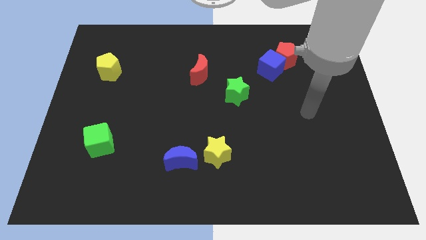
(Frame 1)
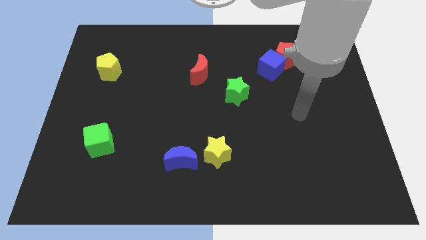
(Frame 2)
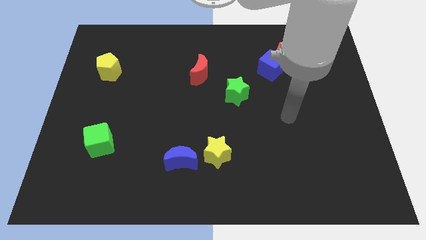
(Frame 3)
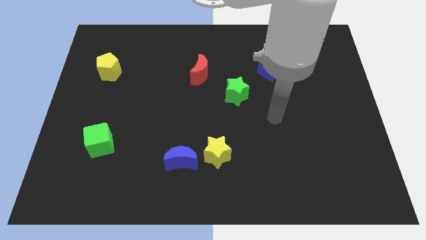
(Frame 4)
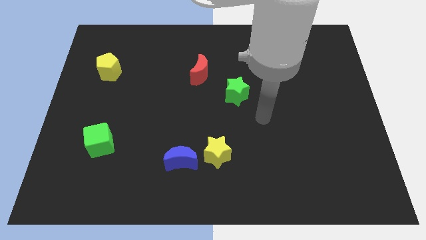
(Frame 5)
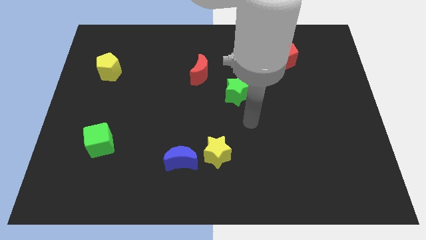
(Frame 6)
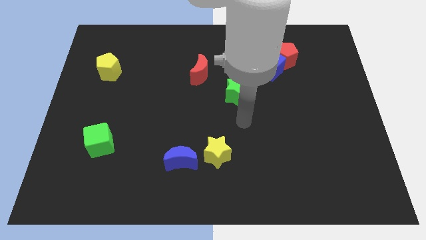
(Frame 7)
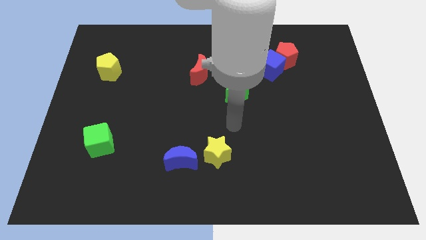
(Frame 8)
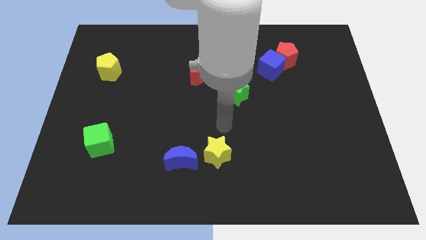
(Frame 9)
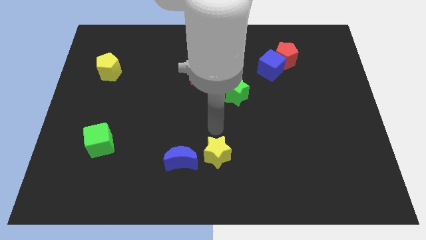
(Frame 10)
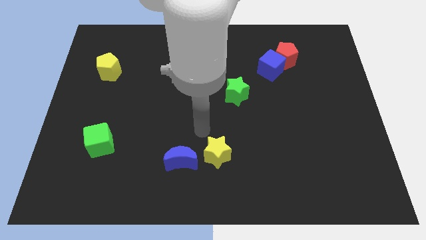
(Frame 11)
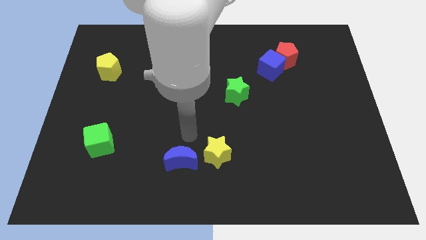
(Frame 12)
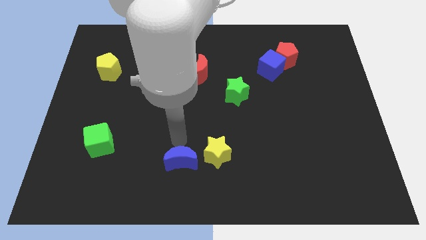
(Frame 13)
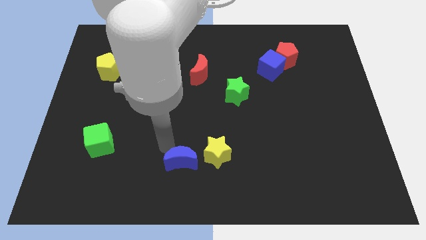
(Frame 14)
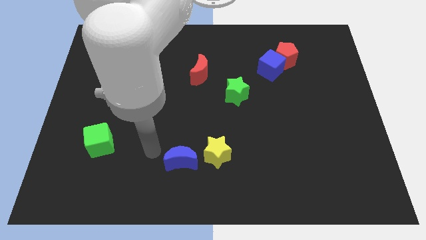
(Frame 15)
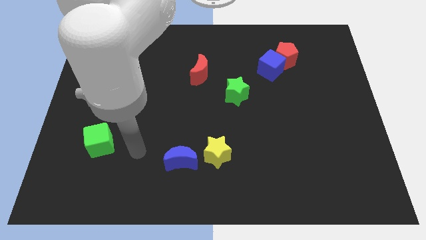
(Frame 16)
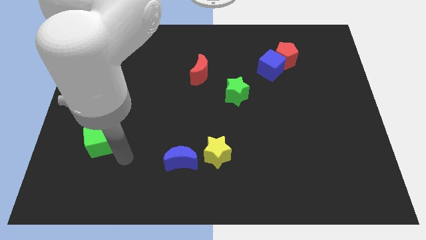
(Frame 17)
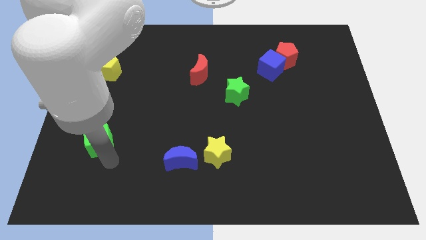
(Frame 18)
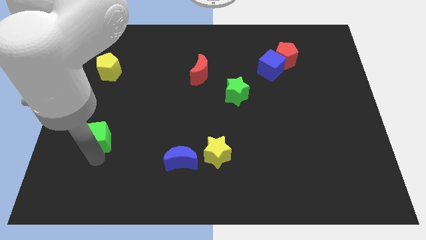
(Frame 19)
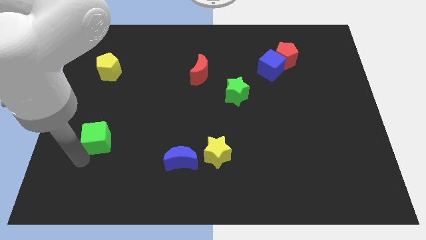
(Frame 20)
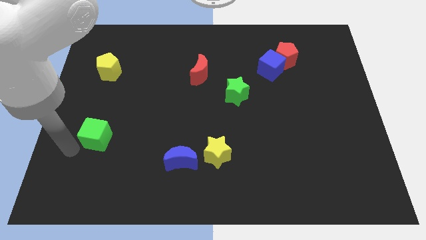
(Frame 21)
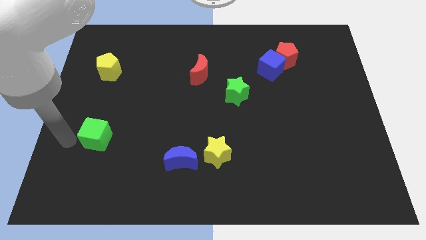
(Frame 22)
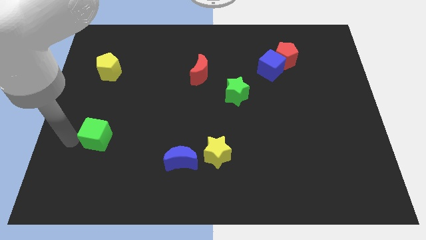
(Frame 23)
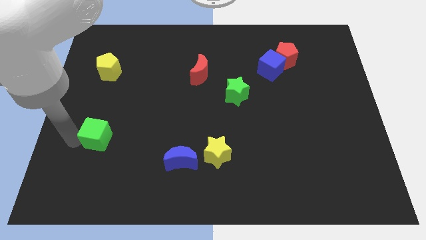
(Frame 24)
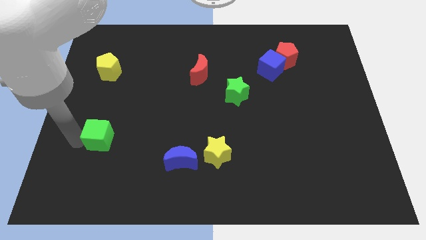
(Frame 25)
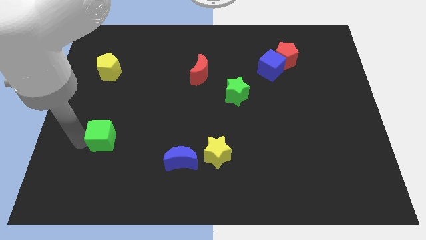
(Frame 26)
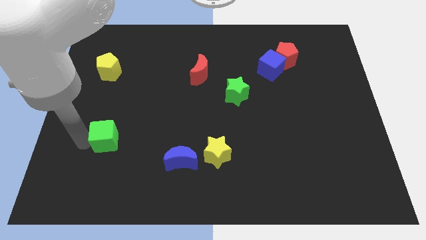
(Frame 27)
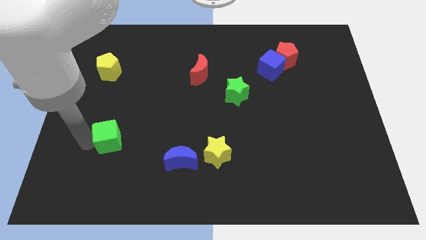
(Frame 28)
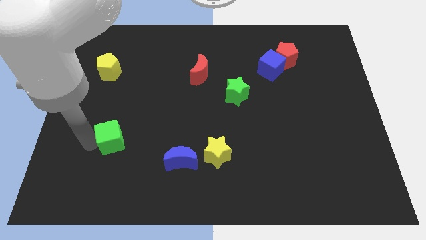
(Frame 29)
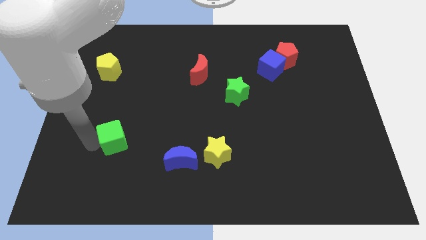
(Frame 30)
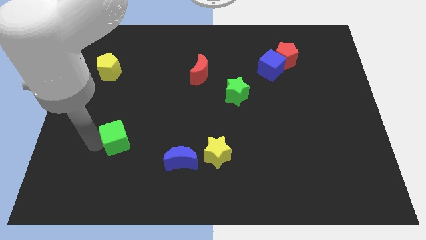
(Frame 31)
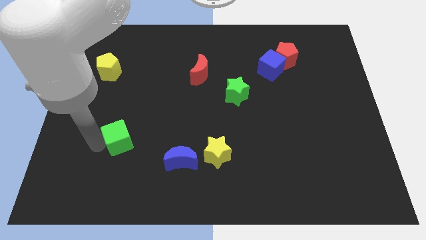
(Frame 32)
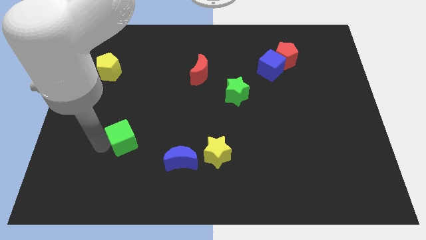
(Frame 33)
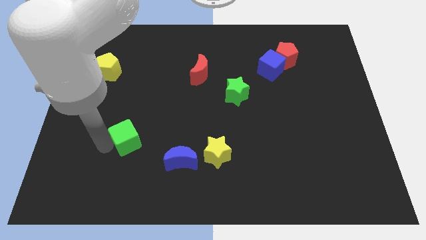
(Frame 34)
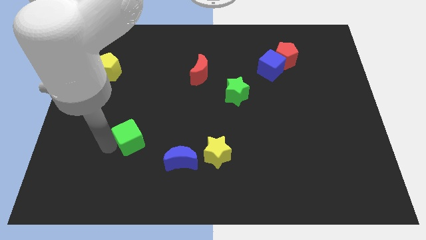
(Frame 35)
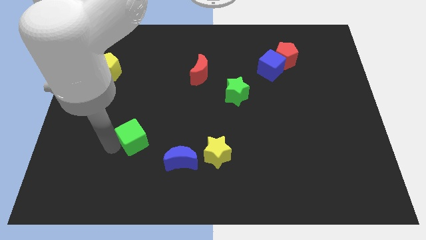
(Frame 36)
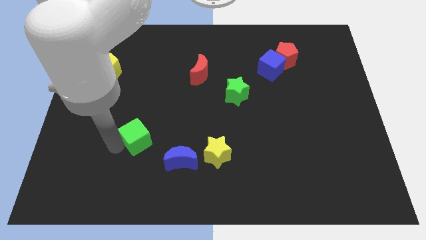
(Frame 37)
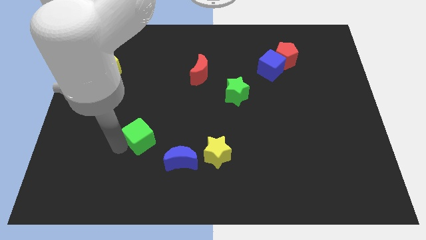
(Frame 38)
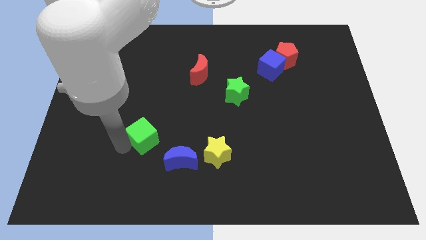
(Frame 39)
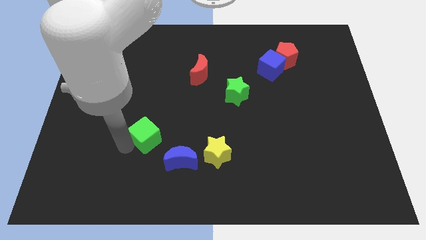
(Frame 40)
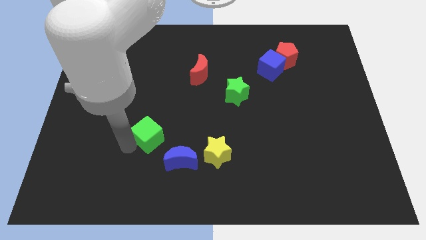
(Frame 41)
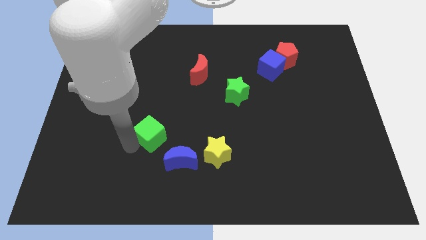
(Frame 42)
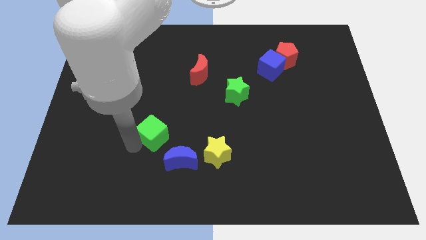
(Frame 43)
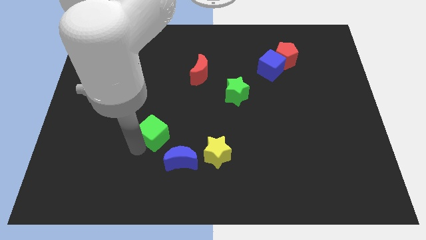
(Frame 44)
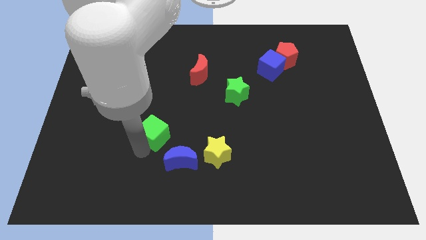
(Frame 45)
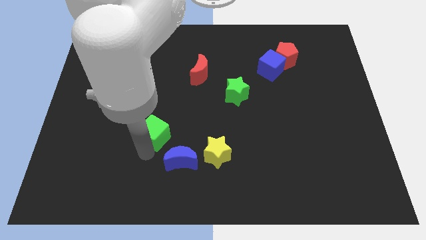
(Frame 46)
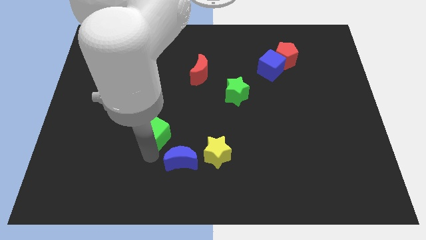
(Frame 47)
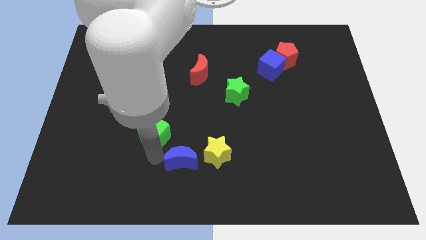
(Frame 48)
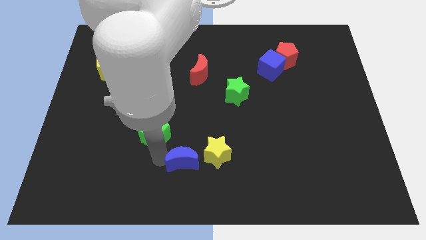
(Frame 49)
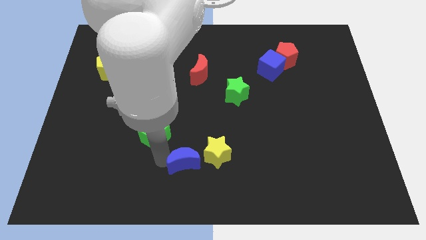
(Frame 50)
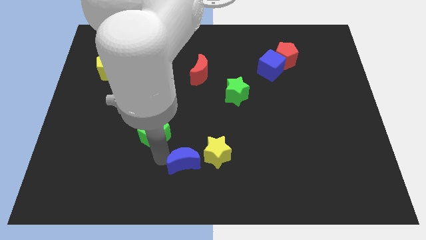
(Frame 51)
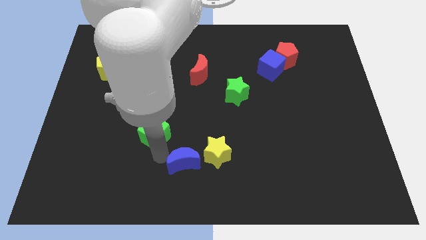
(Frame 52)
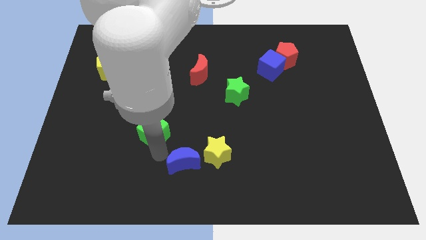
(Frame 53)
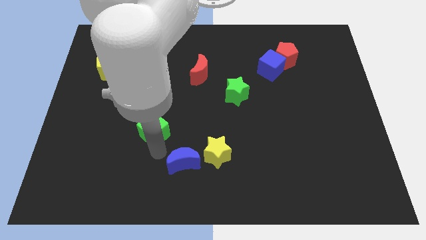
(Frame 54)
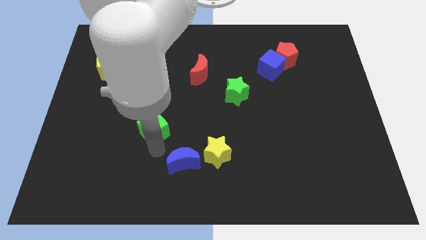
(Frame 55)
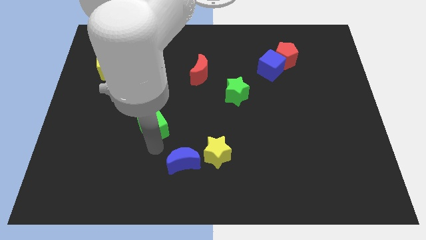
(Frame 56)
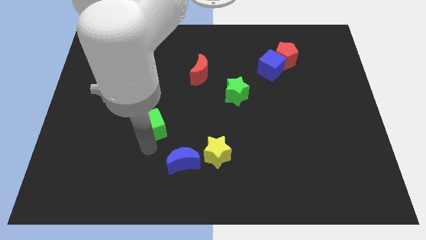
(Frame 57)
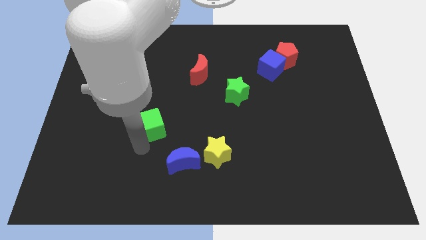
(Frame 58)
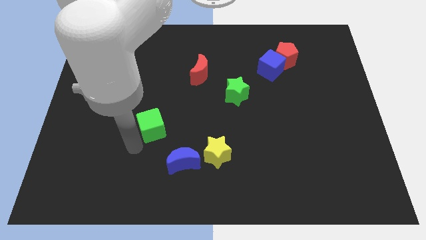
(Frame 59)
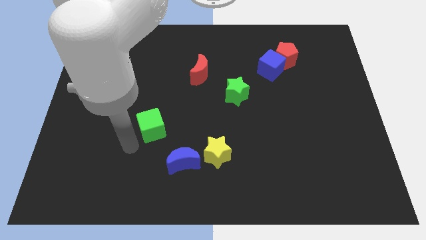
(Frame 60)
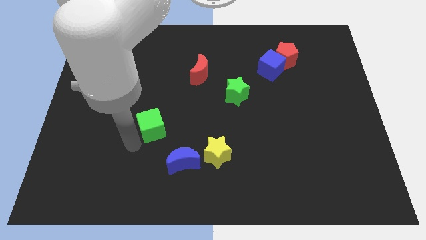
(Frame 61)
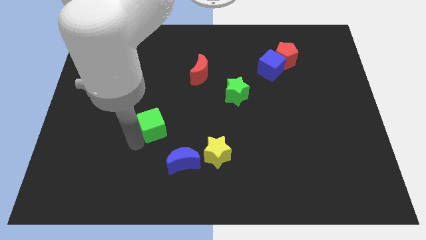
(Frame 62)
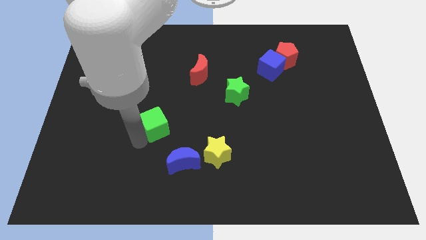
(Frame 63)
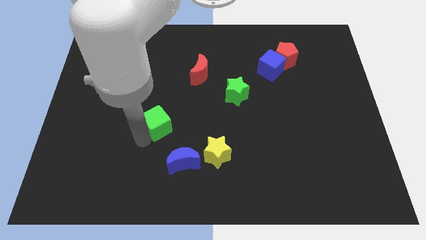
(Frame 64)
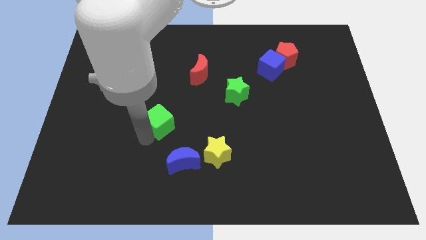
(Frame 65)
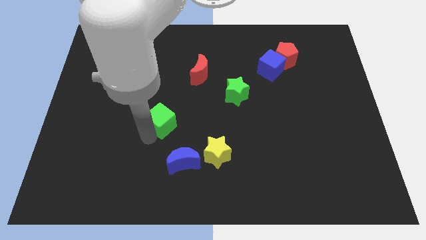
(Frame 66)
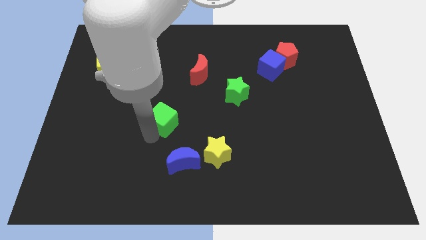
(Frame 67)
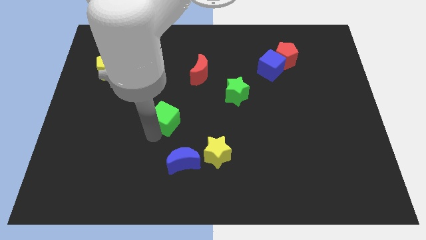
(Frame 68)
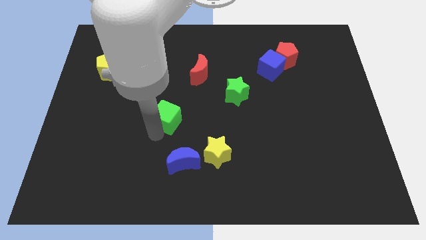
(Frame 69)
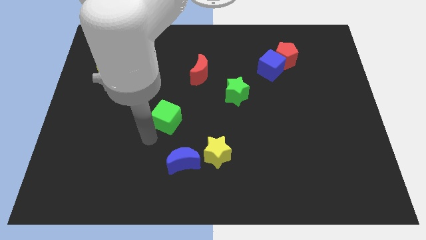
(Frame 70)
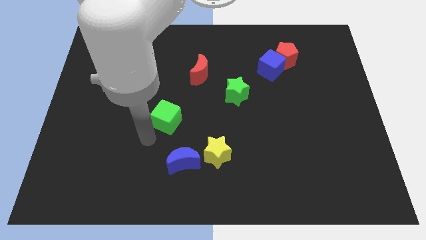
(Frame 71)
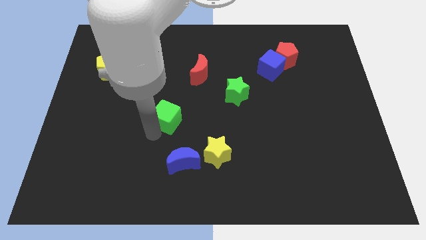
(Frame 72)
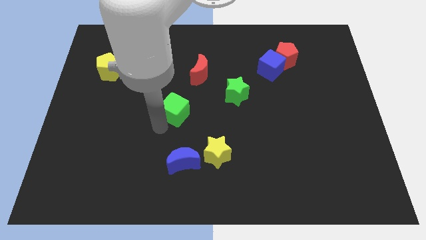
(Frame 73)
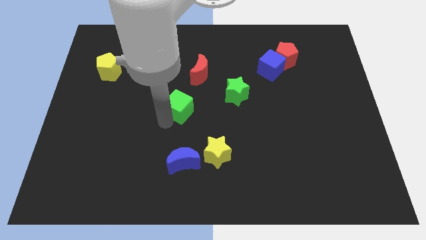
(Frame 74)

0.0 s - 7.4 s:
put the green cube left of the green star

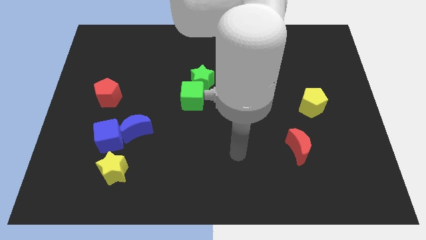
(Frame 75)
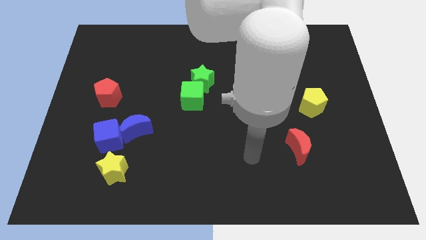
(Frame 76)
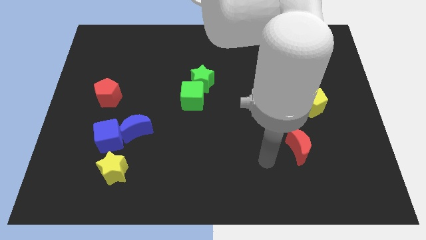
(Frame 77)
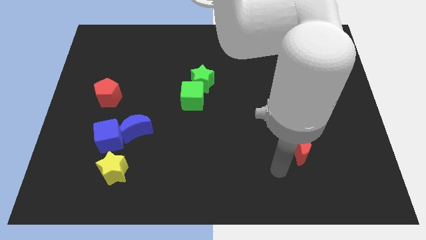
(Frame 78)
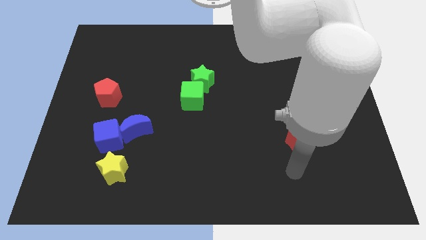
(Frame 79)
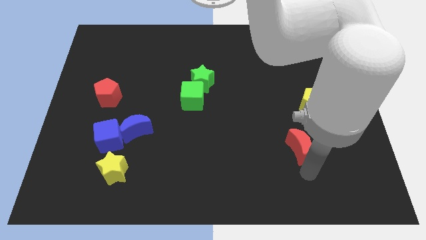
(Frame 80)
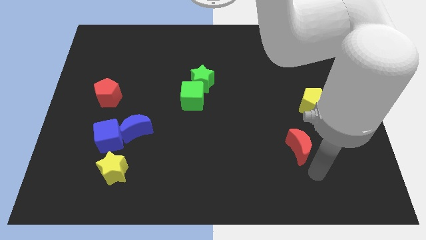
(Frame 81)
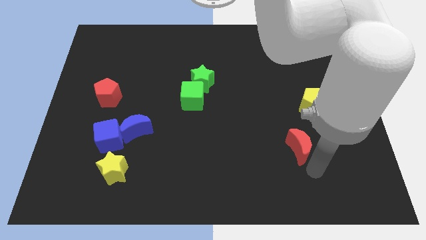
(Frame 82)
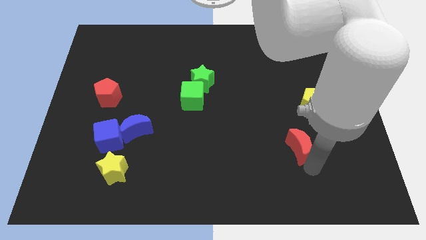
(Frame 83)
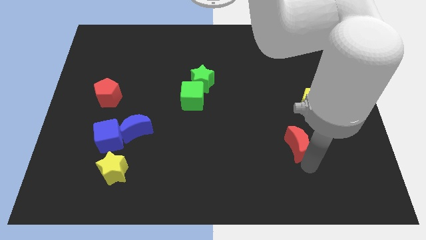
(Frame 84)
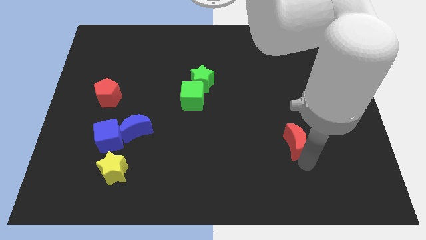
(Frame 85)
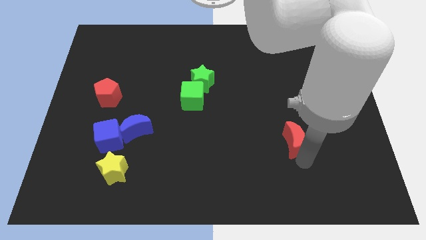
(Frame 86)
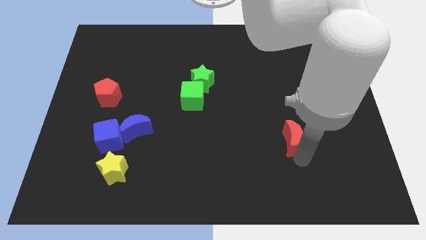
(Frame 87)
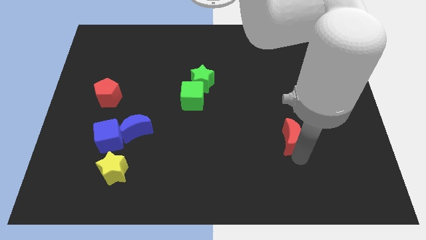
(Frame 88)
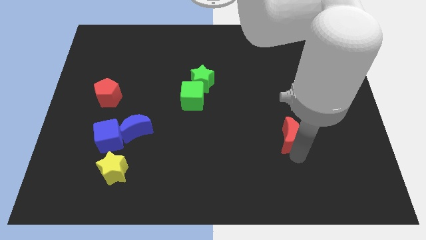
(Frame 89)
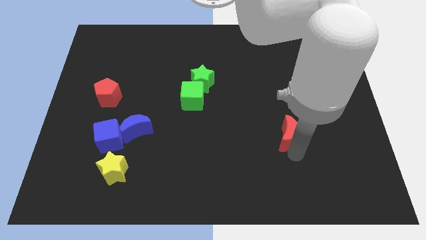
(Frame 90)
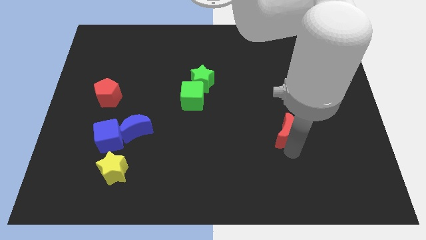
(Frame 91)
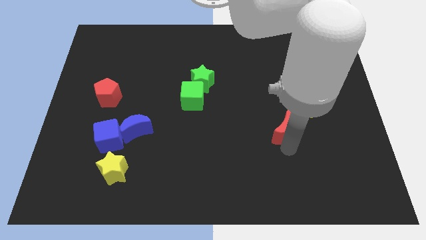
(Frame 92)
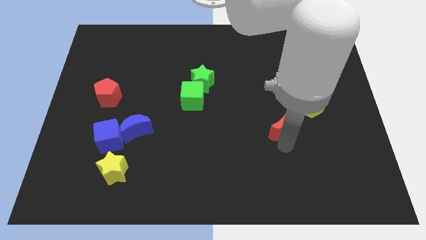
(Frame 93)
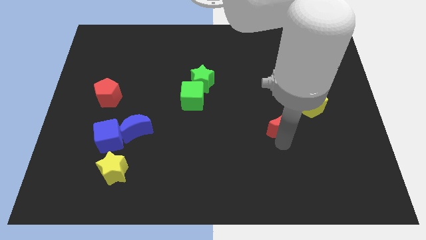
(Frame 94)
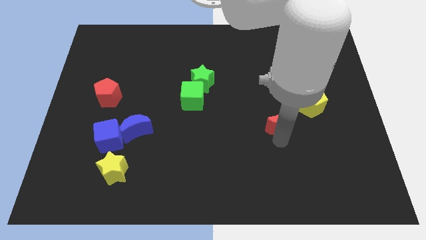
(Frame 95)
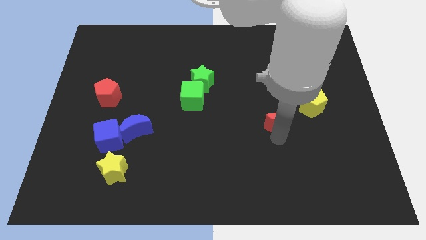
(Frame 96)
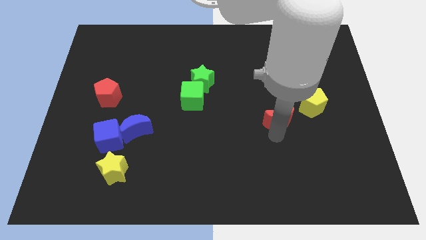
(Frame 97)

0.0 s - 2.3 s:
put the red moon left of the yellow pentagon
